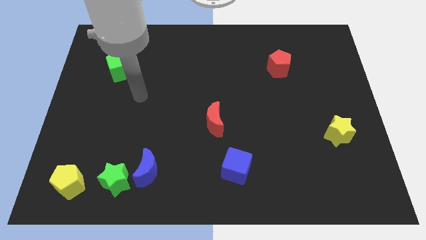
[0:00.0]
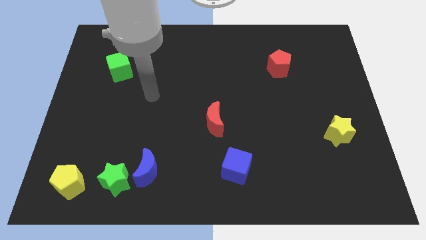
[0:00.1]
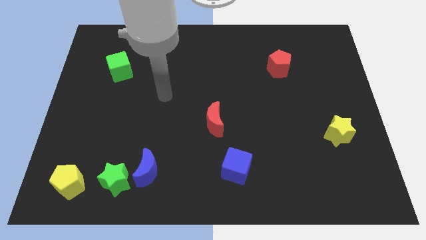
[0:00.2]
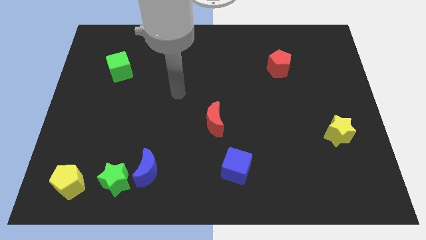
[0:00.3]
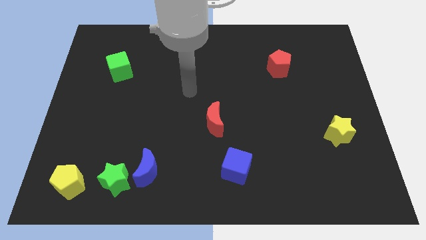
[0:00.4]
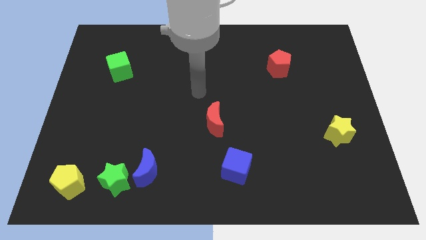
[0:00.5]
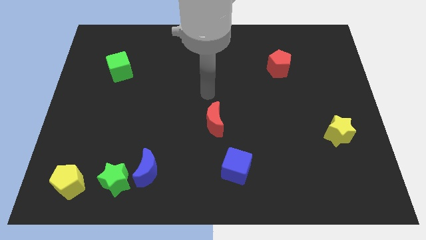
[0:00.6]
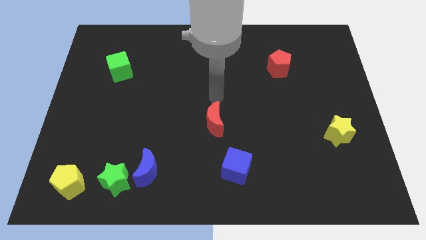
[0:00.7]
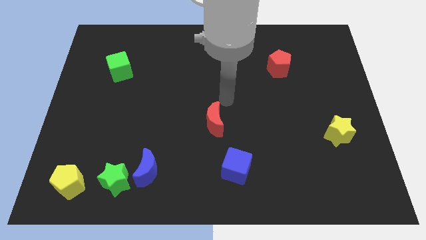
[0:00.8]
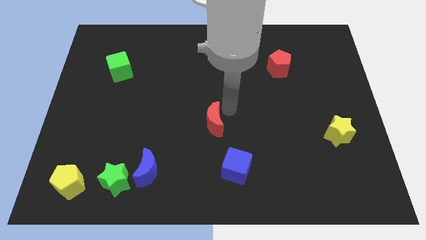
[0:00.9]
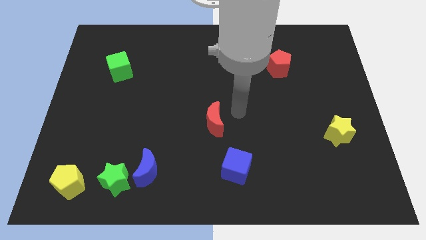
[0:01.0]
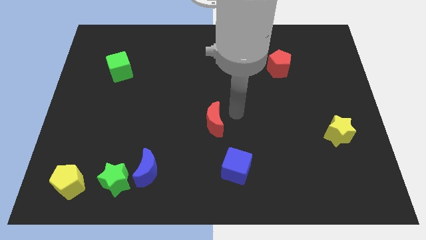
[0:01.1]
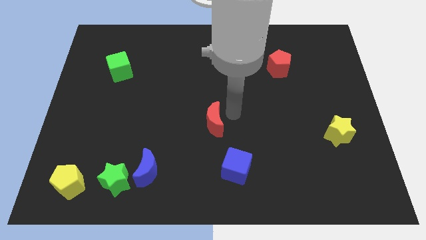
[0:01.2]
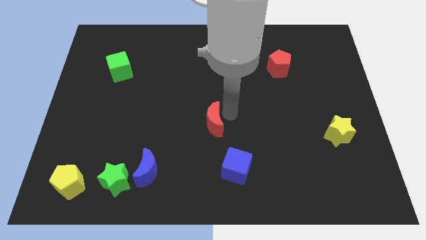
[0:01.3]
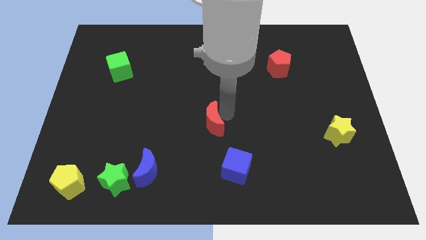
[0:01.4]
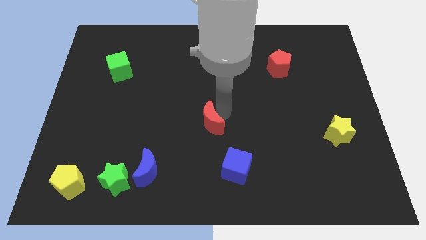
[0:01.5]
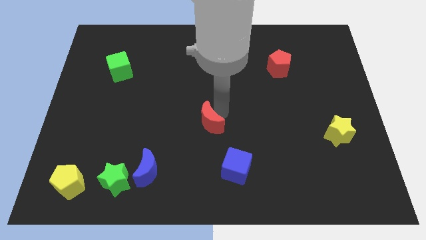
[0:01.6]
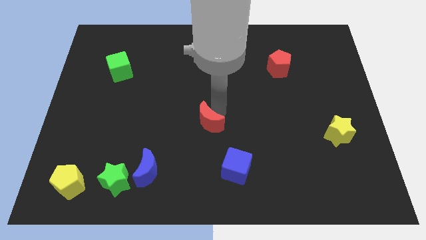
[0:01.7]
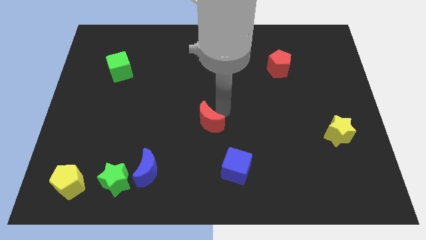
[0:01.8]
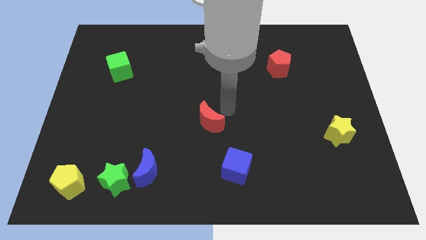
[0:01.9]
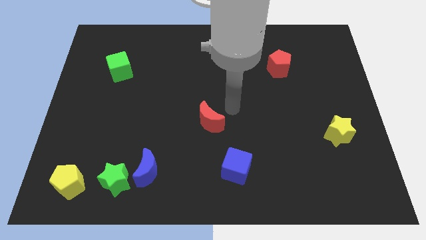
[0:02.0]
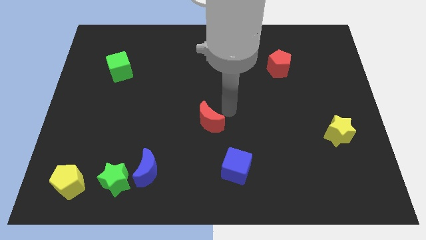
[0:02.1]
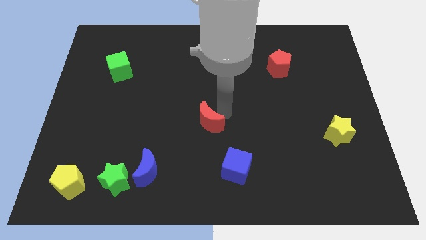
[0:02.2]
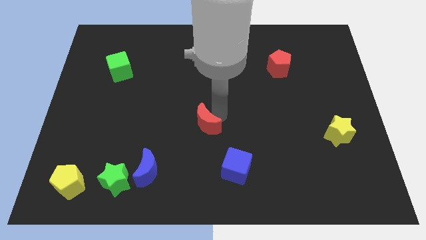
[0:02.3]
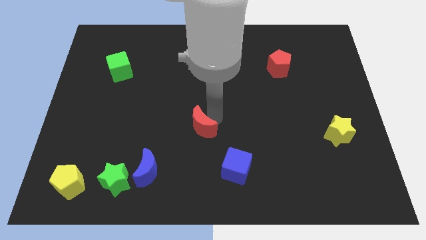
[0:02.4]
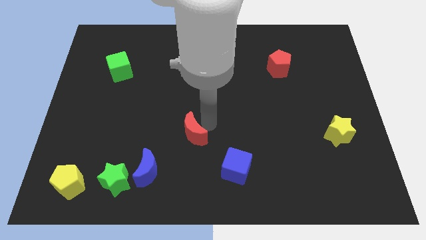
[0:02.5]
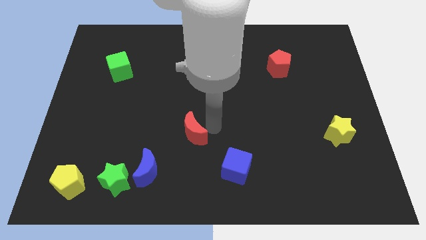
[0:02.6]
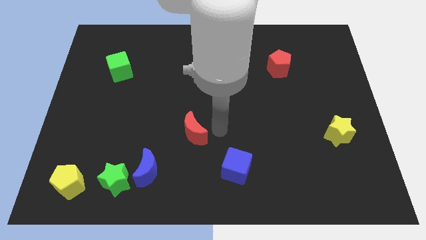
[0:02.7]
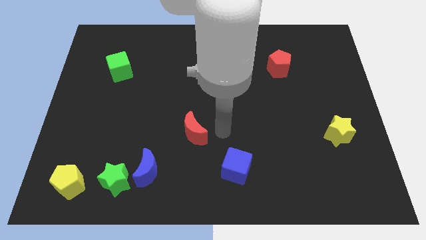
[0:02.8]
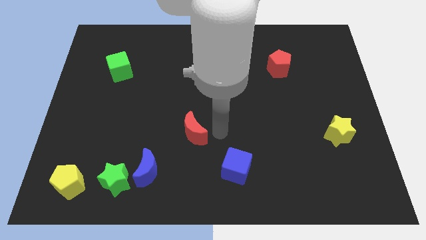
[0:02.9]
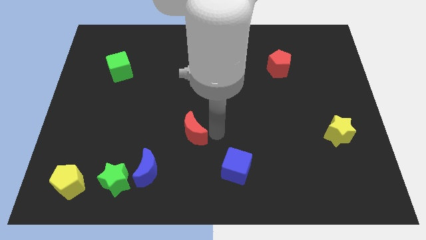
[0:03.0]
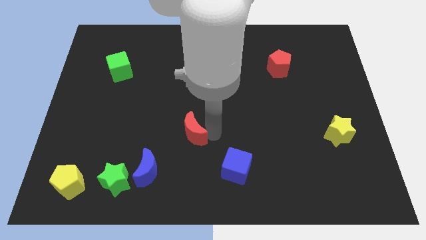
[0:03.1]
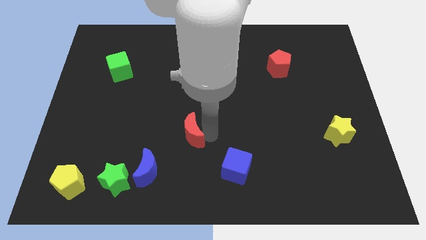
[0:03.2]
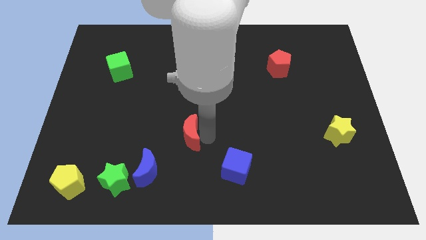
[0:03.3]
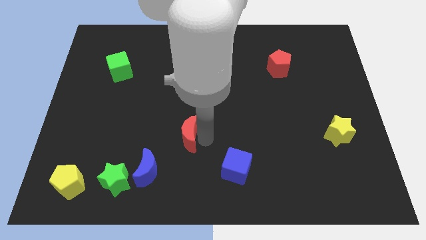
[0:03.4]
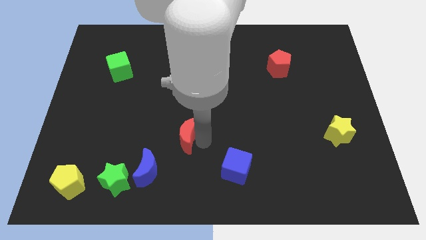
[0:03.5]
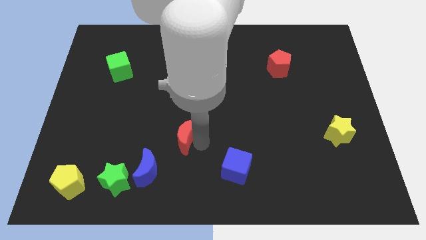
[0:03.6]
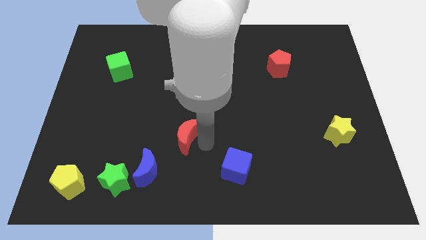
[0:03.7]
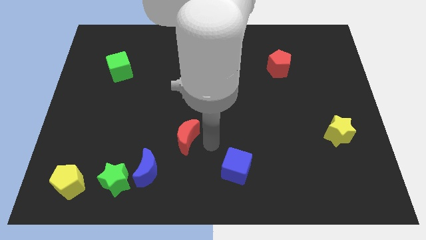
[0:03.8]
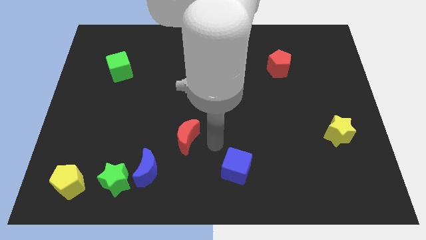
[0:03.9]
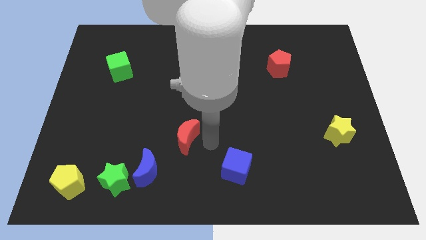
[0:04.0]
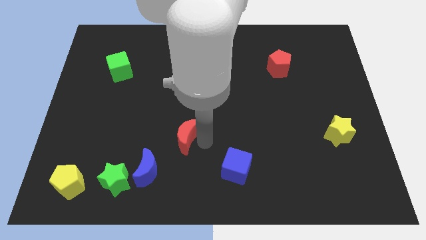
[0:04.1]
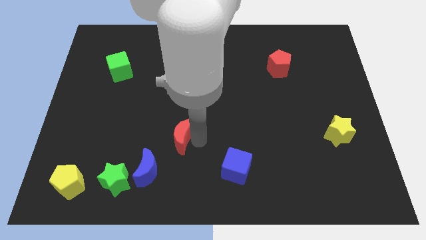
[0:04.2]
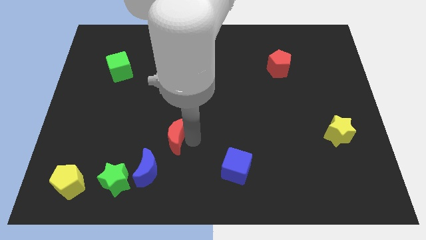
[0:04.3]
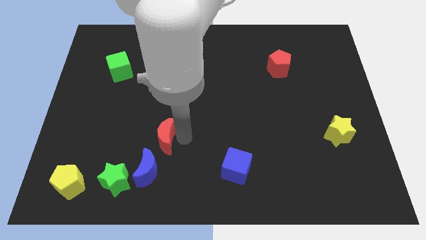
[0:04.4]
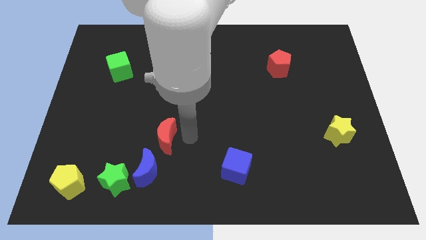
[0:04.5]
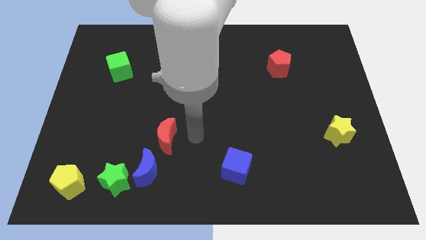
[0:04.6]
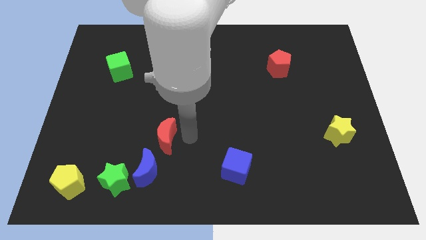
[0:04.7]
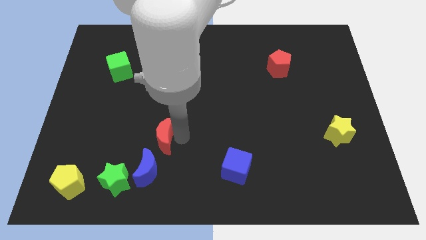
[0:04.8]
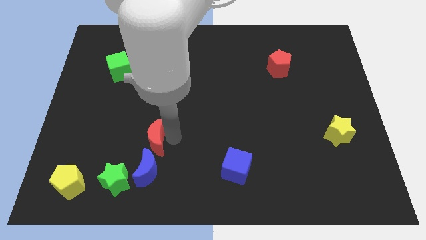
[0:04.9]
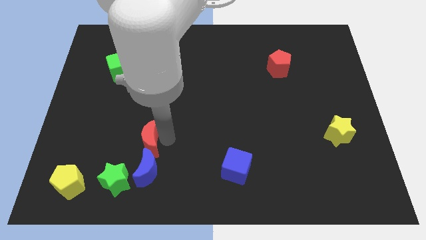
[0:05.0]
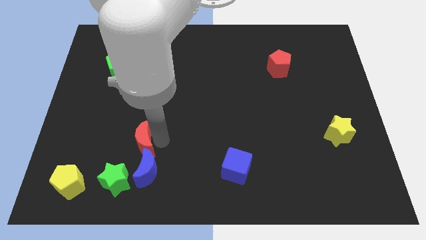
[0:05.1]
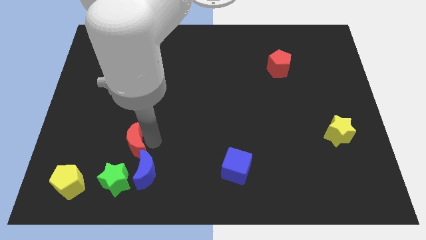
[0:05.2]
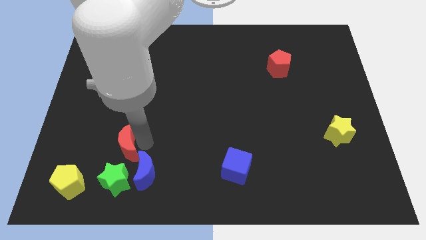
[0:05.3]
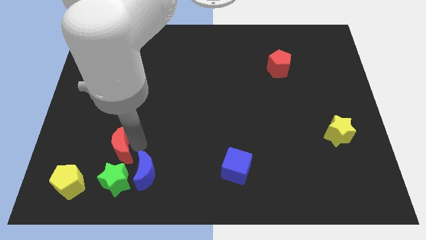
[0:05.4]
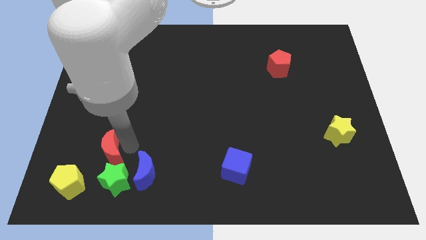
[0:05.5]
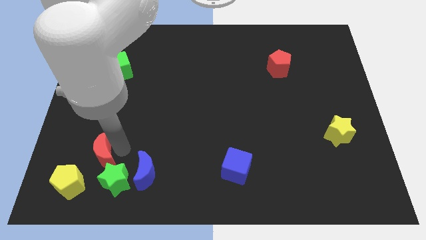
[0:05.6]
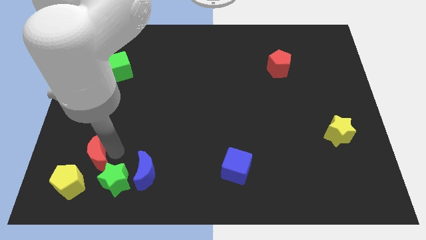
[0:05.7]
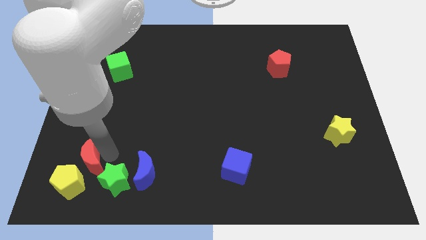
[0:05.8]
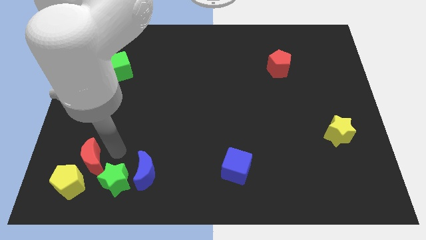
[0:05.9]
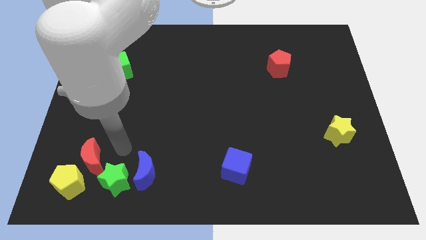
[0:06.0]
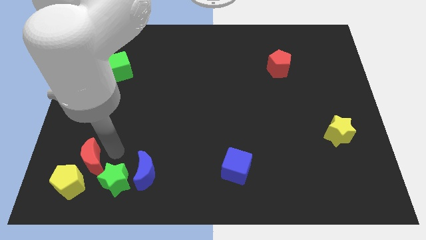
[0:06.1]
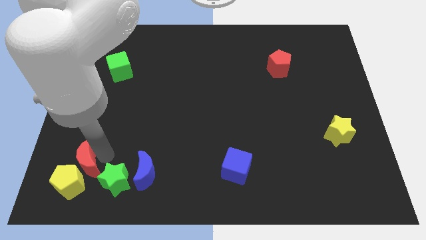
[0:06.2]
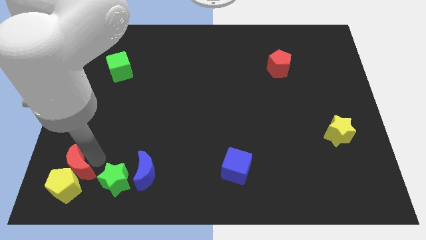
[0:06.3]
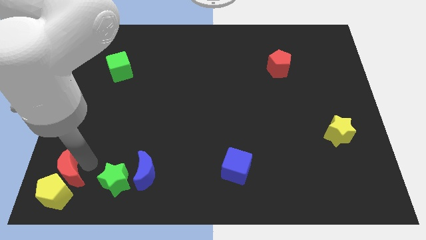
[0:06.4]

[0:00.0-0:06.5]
put the red moon to the bottom left of the board
